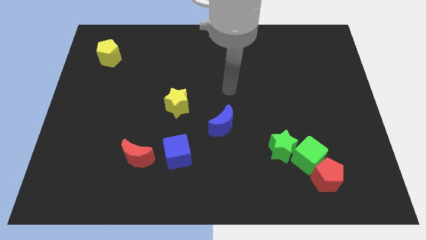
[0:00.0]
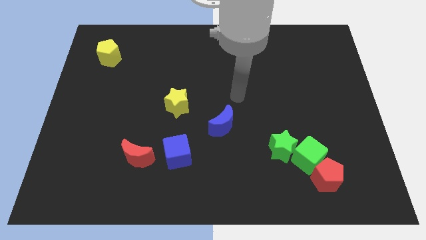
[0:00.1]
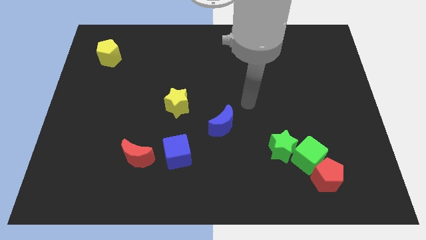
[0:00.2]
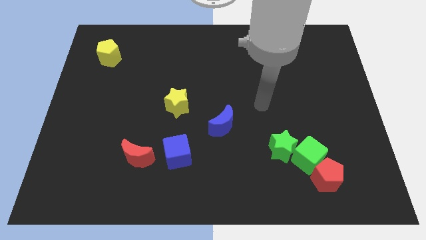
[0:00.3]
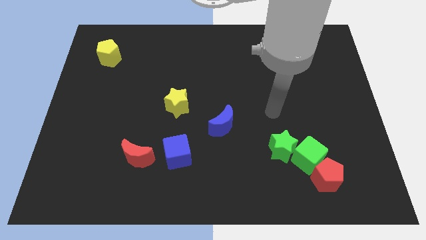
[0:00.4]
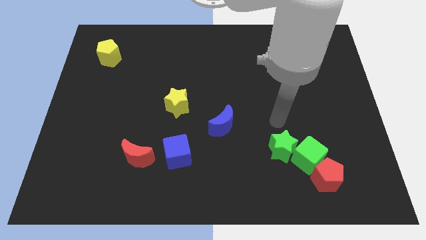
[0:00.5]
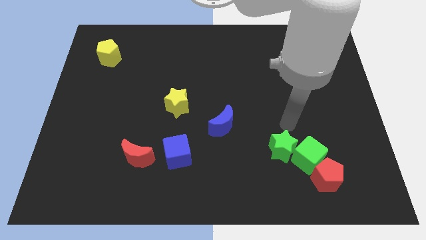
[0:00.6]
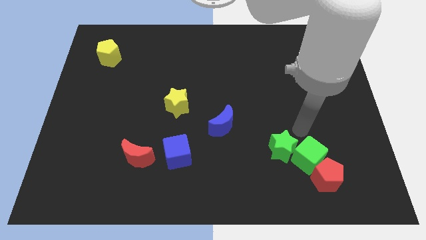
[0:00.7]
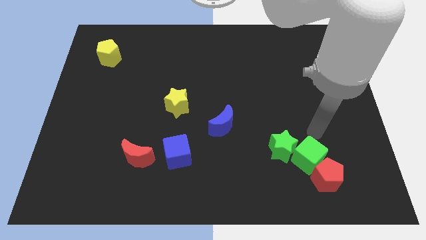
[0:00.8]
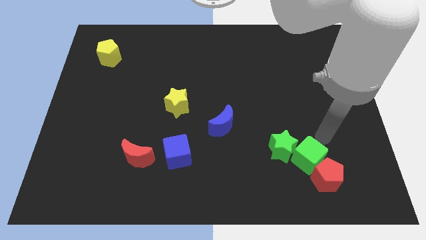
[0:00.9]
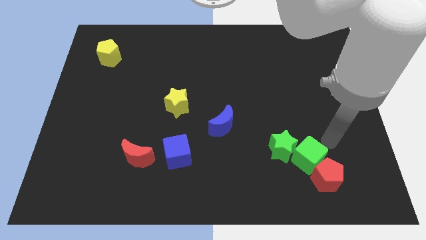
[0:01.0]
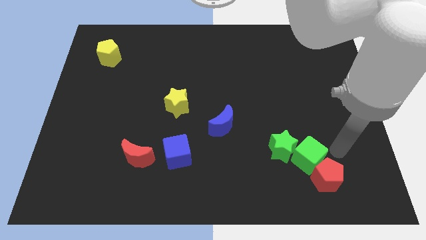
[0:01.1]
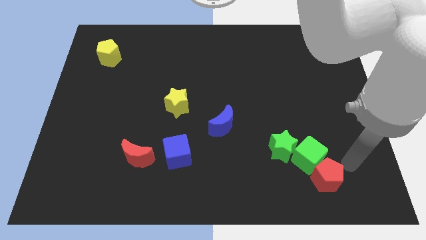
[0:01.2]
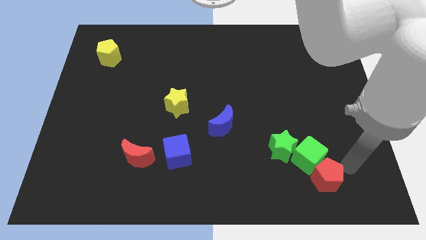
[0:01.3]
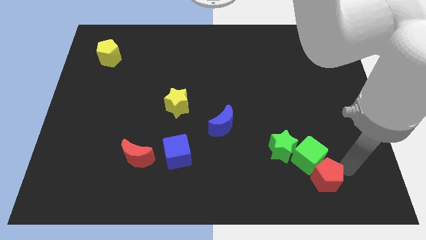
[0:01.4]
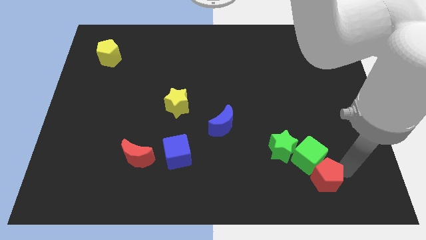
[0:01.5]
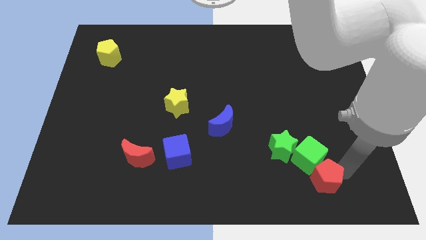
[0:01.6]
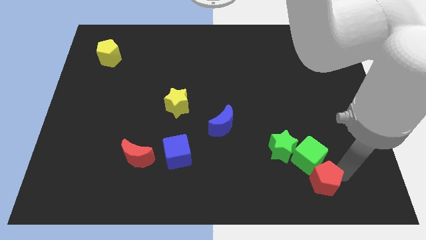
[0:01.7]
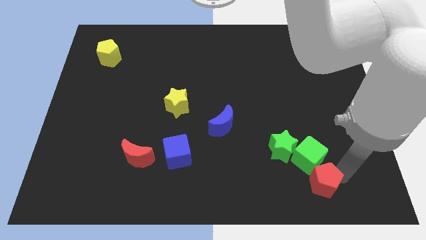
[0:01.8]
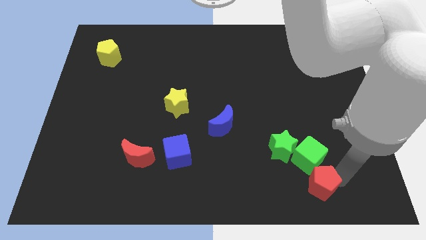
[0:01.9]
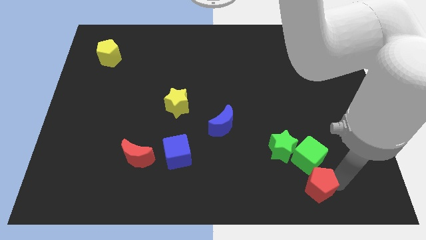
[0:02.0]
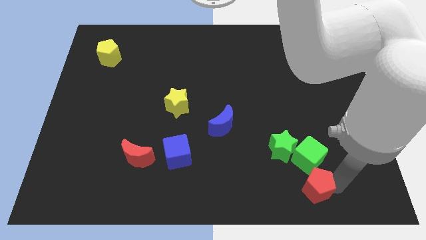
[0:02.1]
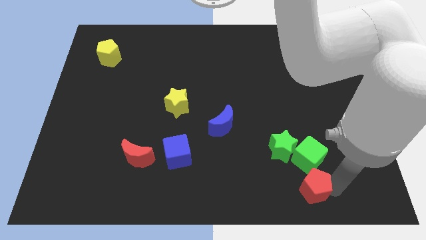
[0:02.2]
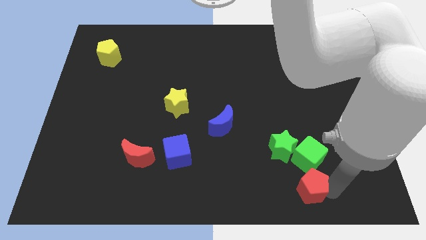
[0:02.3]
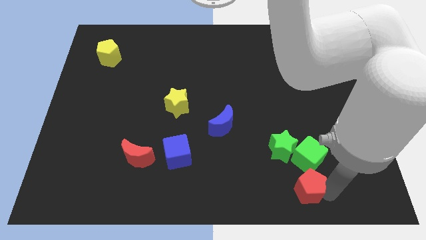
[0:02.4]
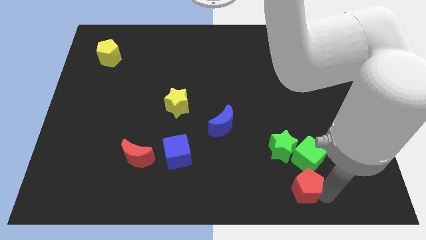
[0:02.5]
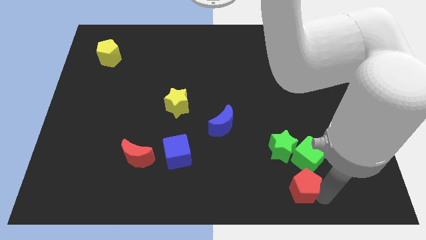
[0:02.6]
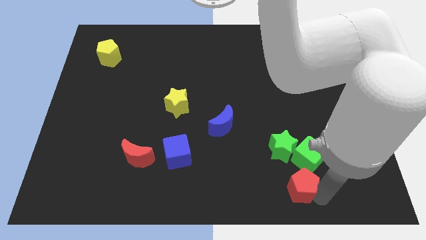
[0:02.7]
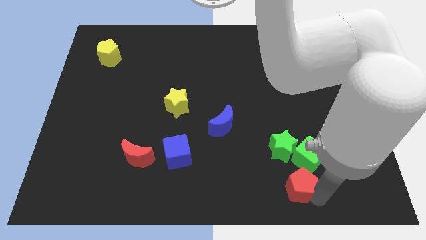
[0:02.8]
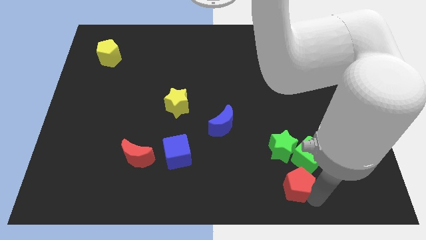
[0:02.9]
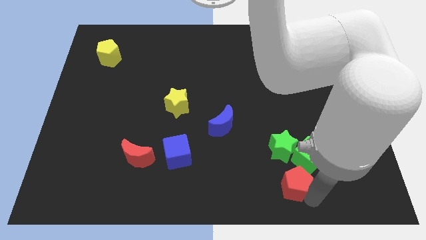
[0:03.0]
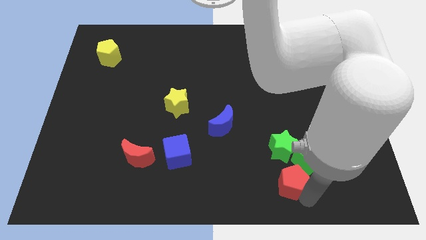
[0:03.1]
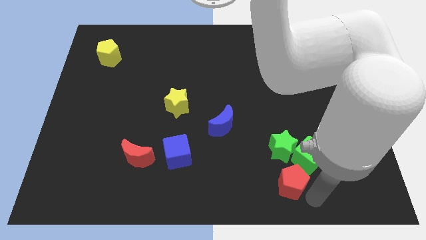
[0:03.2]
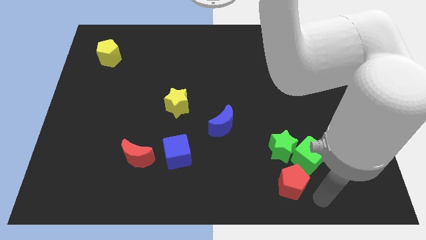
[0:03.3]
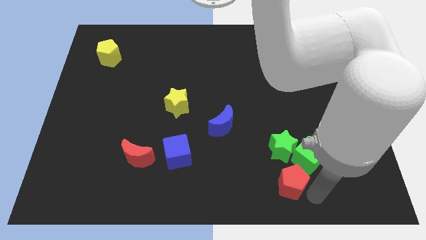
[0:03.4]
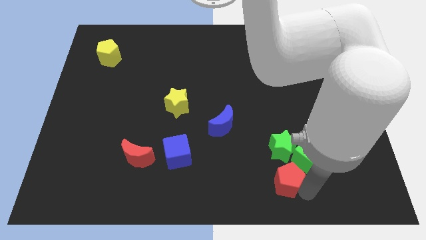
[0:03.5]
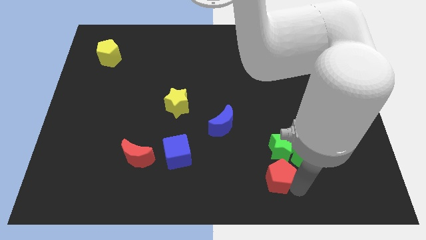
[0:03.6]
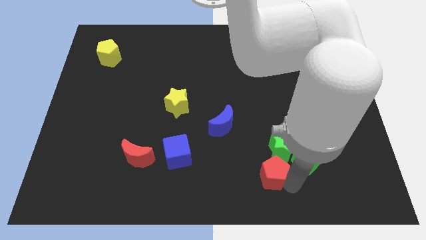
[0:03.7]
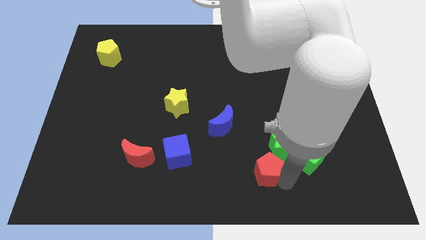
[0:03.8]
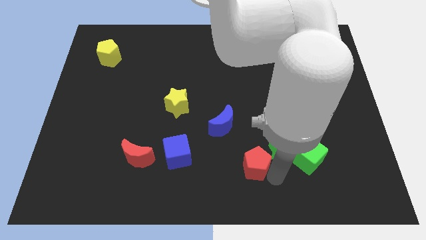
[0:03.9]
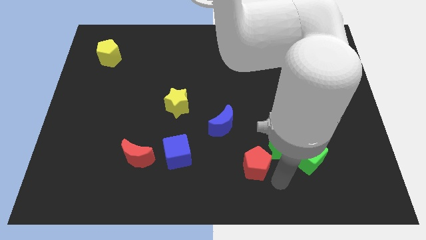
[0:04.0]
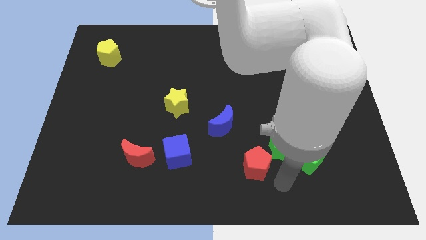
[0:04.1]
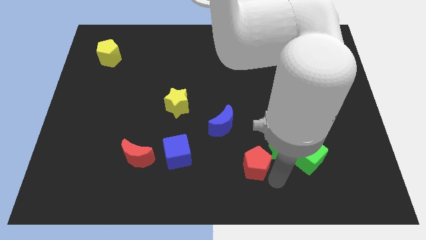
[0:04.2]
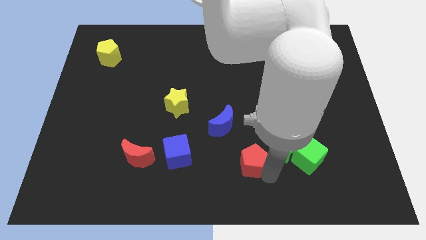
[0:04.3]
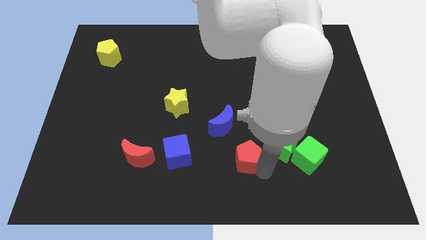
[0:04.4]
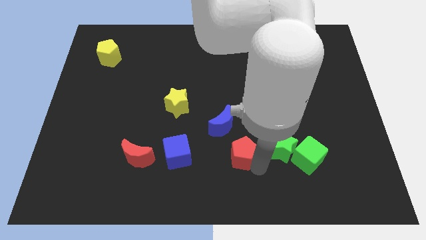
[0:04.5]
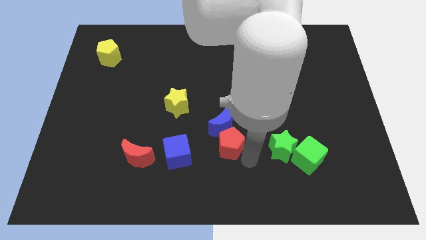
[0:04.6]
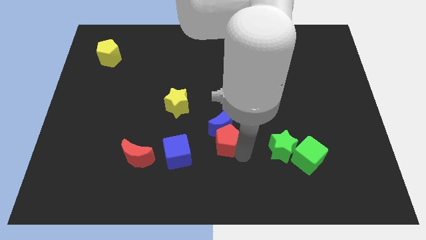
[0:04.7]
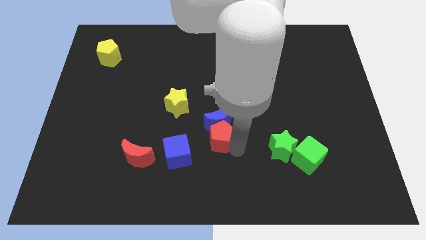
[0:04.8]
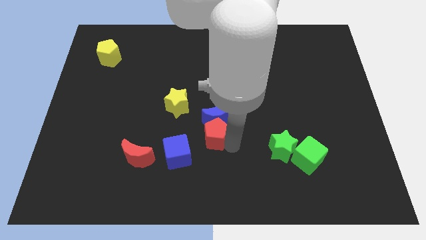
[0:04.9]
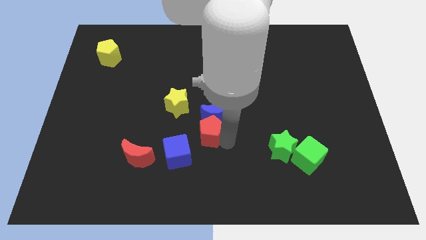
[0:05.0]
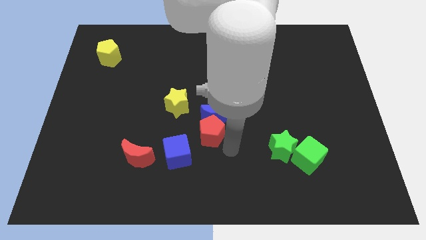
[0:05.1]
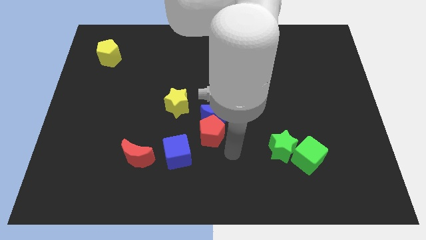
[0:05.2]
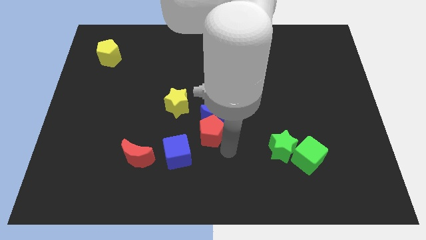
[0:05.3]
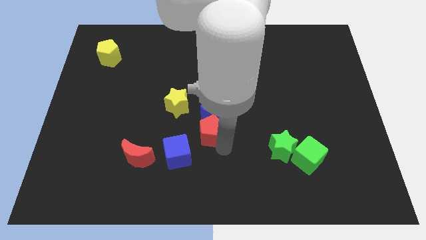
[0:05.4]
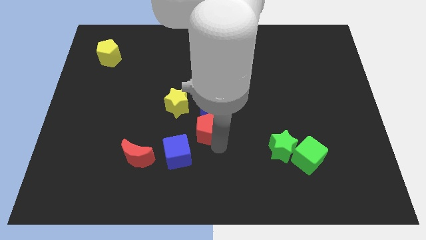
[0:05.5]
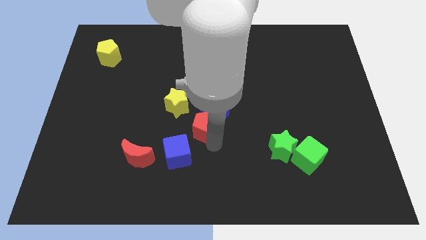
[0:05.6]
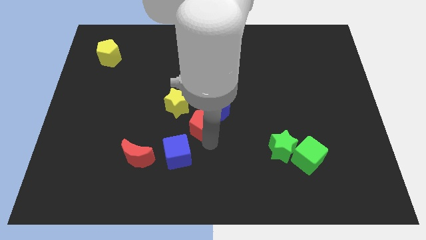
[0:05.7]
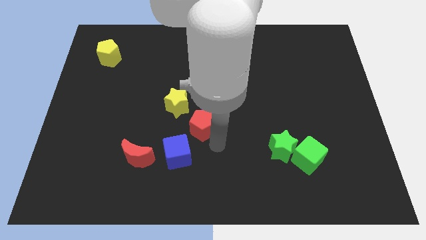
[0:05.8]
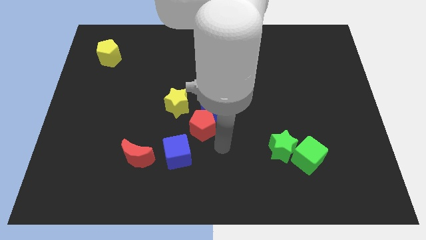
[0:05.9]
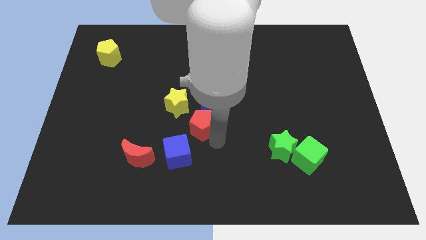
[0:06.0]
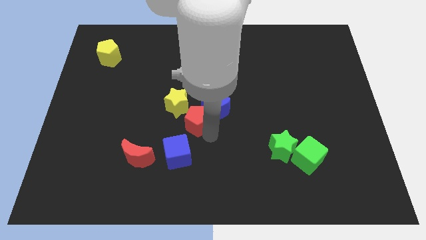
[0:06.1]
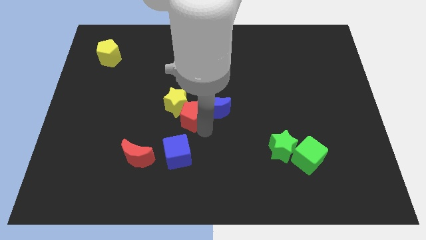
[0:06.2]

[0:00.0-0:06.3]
put the red pentagon towards the yellow star

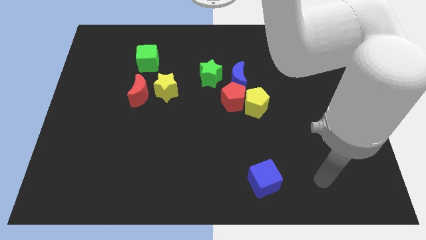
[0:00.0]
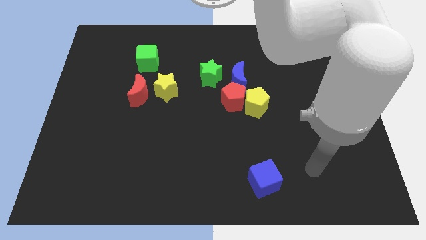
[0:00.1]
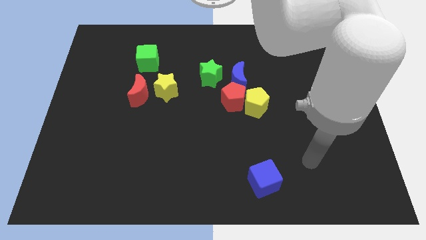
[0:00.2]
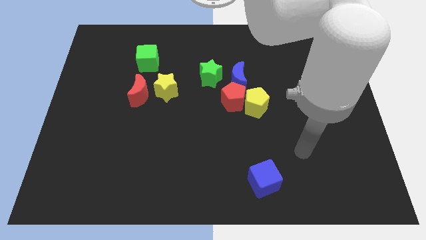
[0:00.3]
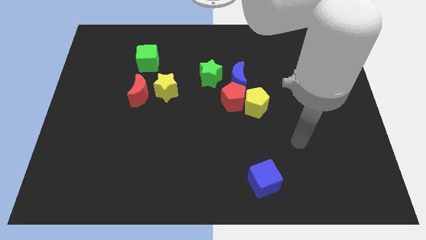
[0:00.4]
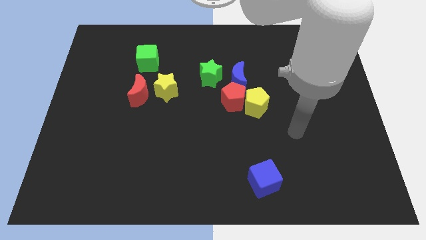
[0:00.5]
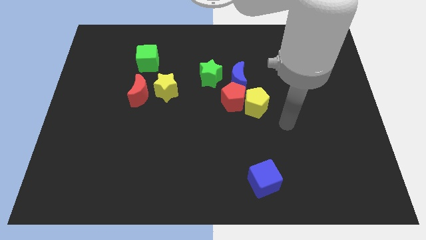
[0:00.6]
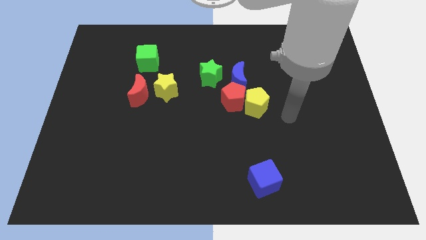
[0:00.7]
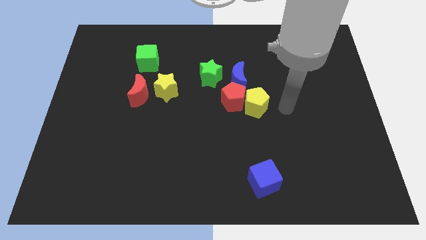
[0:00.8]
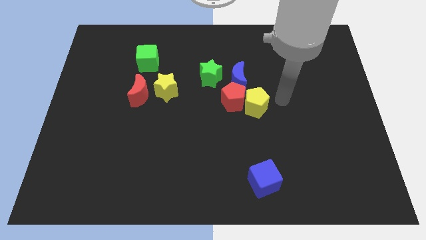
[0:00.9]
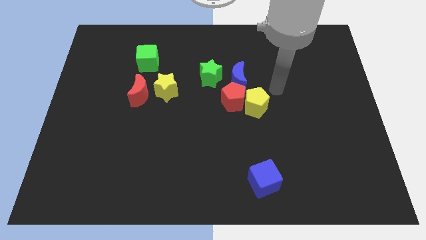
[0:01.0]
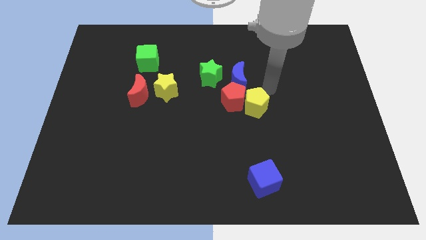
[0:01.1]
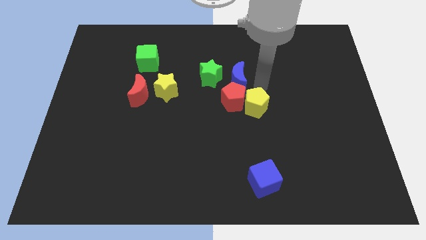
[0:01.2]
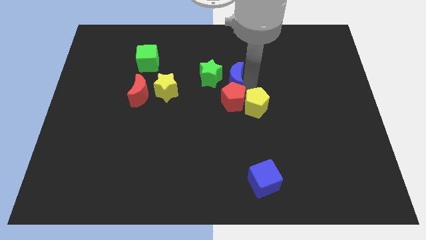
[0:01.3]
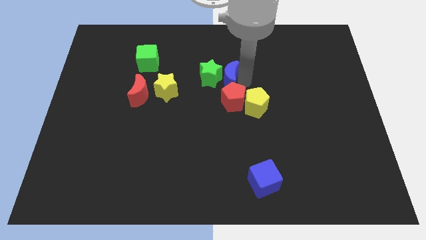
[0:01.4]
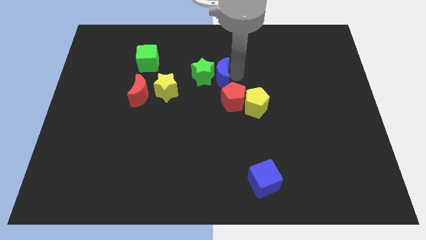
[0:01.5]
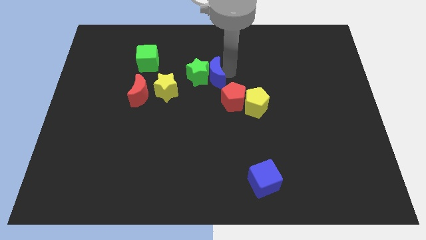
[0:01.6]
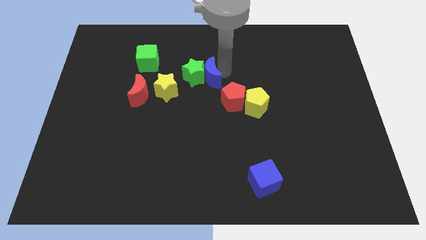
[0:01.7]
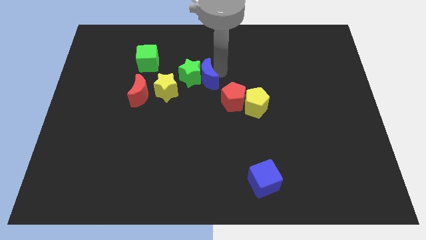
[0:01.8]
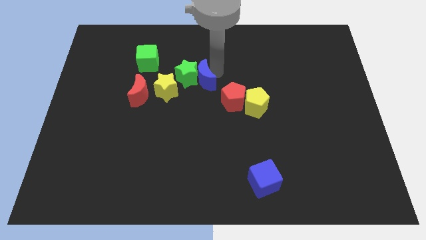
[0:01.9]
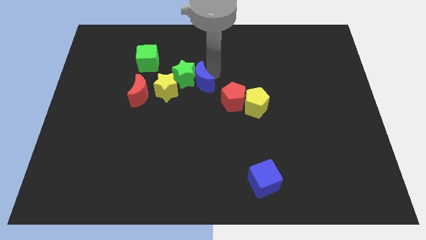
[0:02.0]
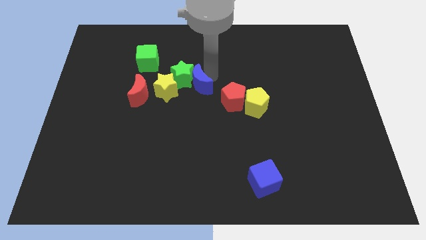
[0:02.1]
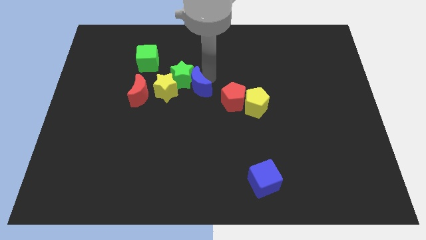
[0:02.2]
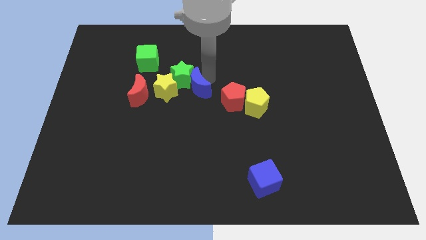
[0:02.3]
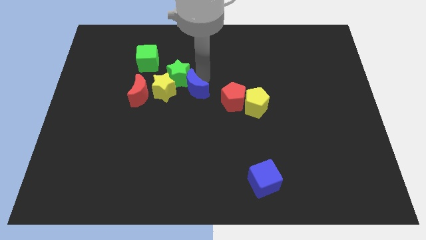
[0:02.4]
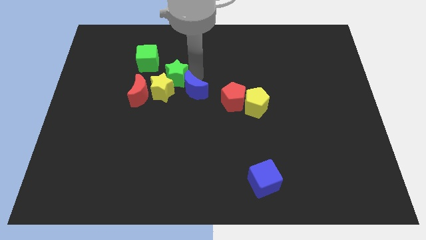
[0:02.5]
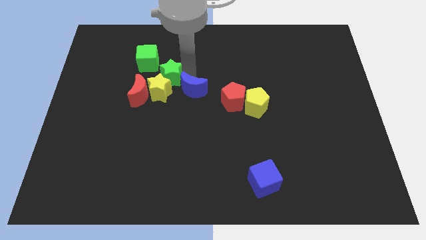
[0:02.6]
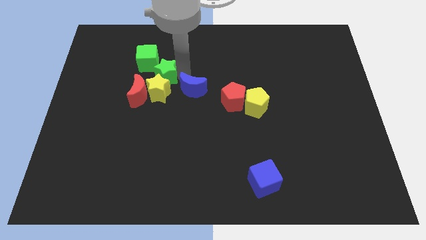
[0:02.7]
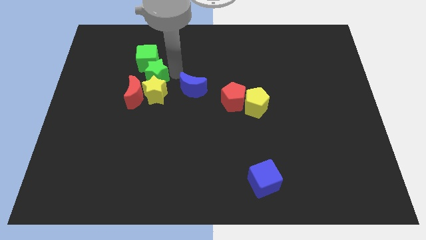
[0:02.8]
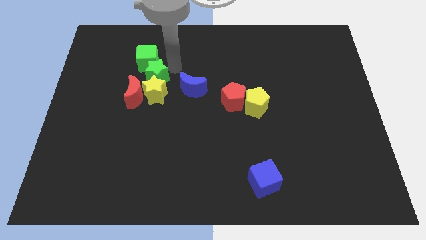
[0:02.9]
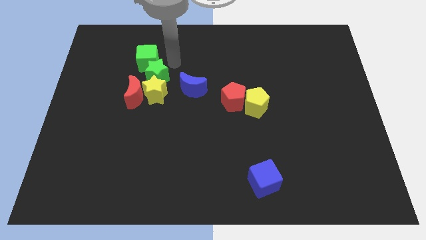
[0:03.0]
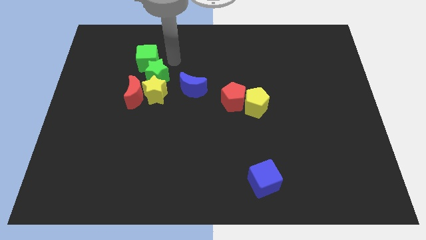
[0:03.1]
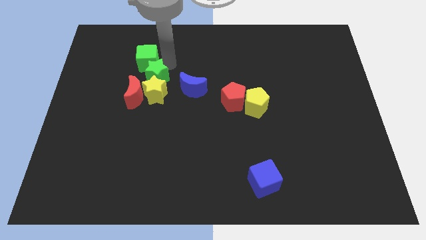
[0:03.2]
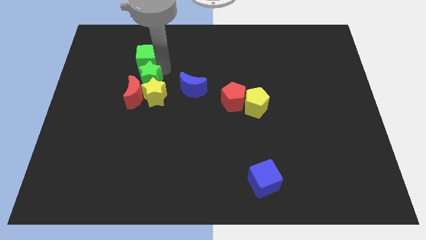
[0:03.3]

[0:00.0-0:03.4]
push the green star next to the red moon
